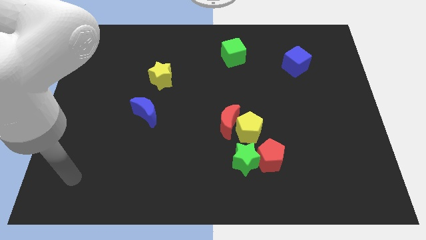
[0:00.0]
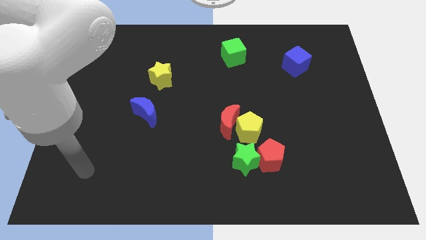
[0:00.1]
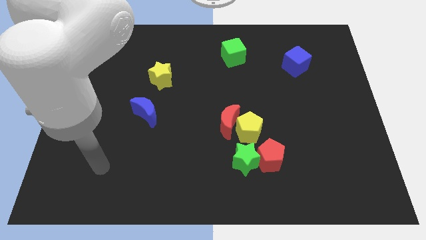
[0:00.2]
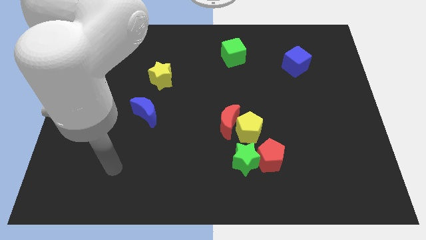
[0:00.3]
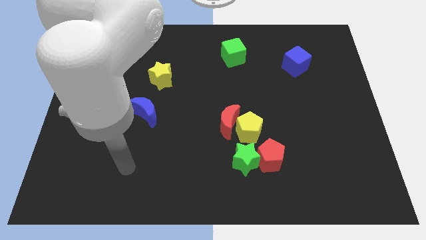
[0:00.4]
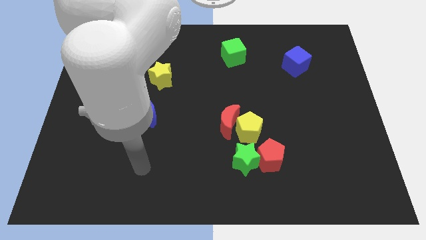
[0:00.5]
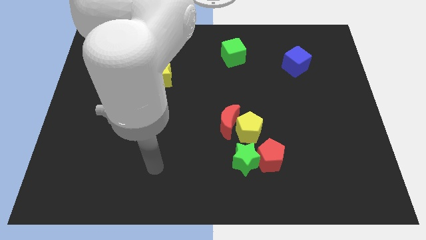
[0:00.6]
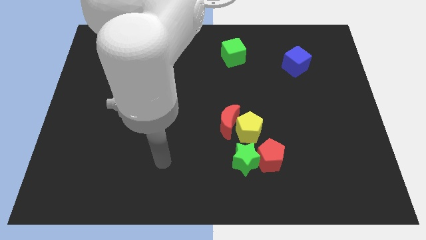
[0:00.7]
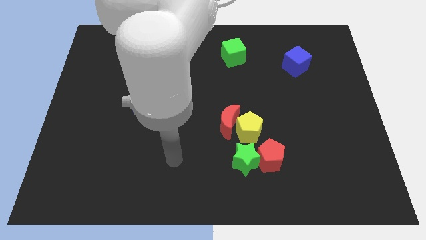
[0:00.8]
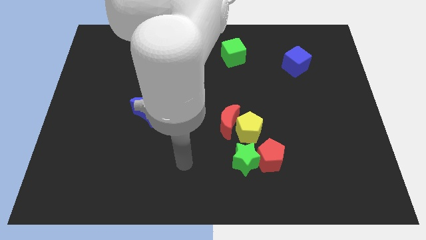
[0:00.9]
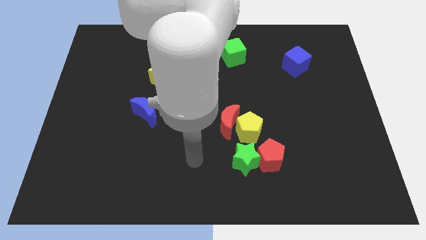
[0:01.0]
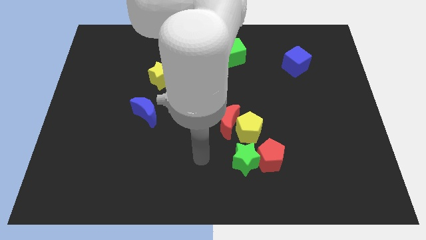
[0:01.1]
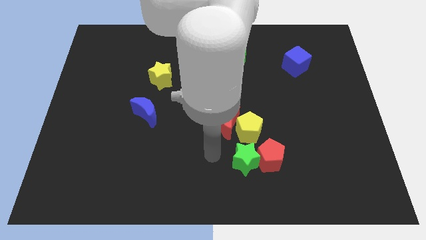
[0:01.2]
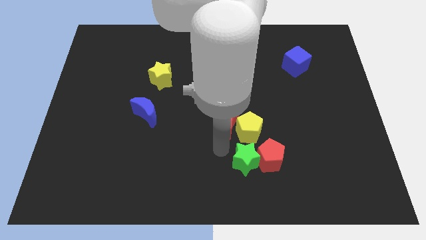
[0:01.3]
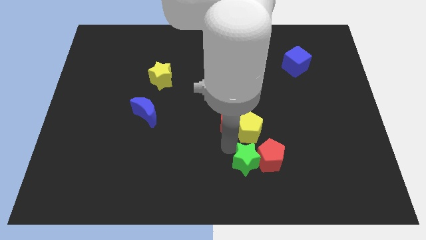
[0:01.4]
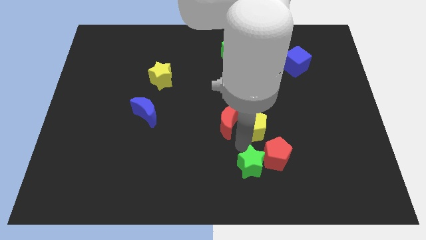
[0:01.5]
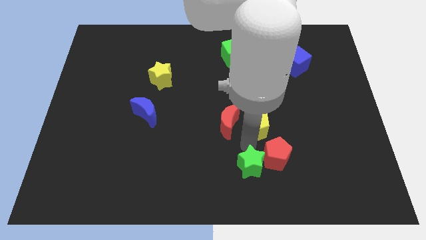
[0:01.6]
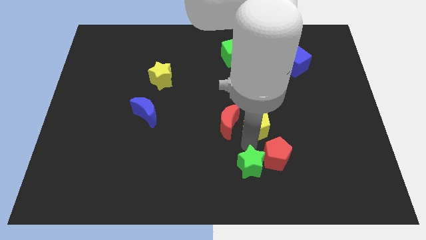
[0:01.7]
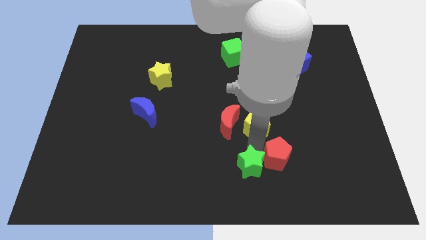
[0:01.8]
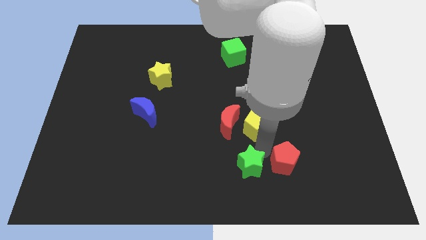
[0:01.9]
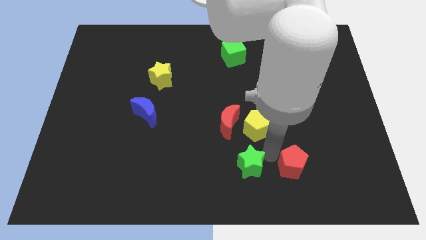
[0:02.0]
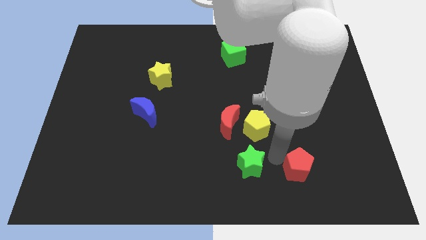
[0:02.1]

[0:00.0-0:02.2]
pull the red pentagon apart from the green star and yellow pentagon

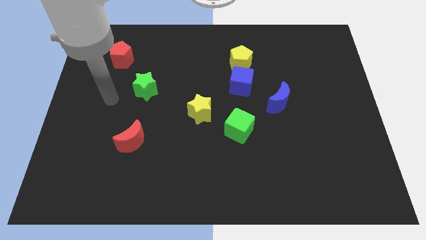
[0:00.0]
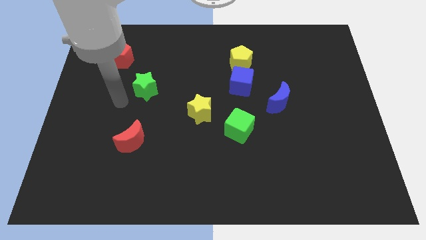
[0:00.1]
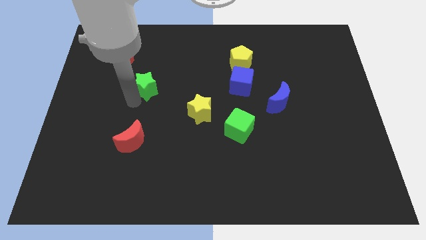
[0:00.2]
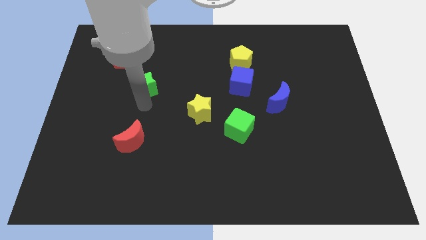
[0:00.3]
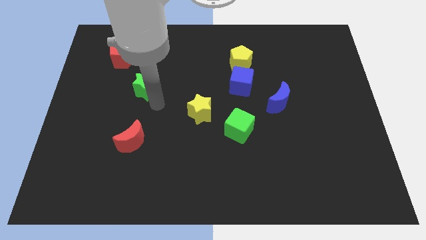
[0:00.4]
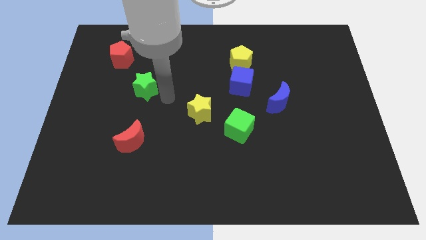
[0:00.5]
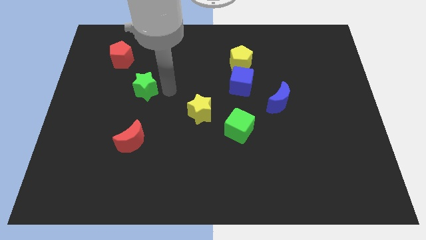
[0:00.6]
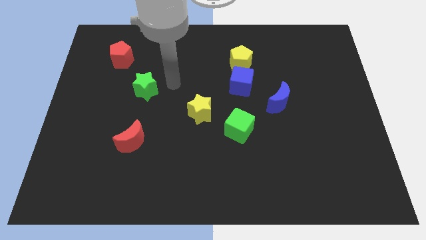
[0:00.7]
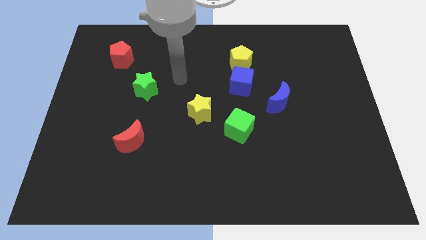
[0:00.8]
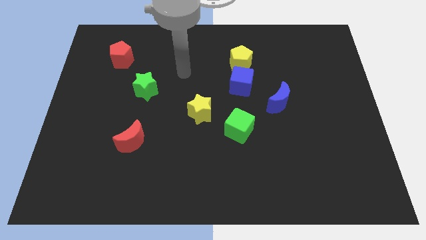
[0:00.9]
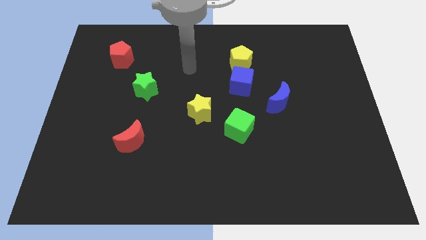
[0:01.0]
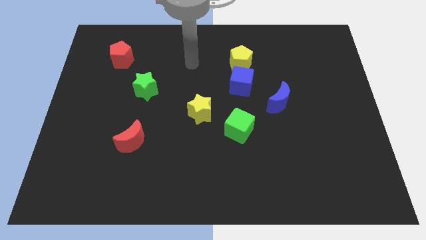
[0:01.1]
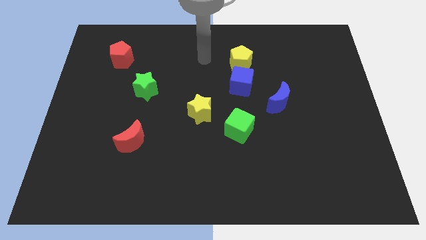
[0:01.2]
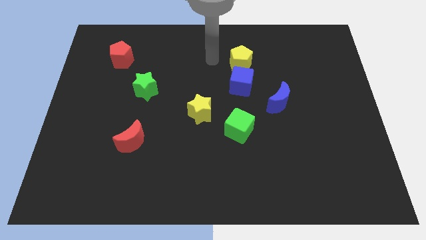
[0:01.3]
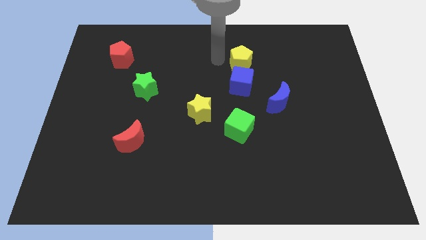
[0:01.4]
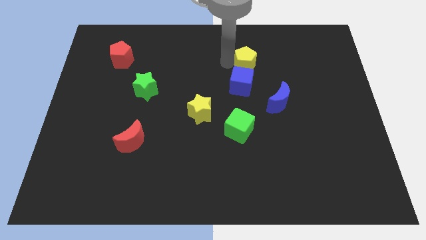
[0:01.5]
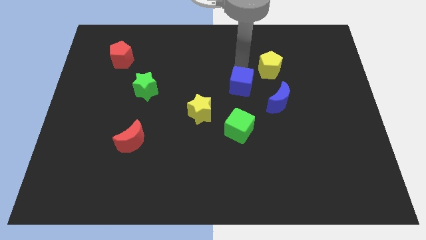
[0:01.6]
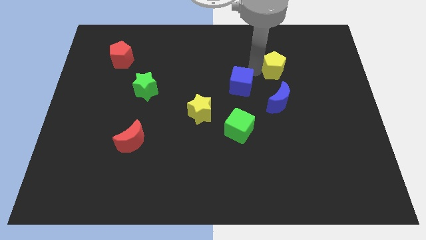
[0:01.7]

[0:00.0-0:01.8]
separate the blue cube from the yellow pentagon

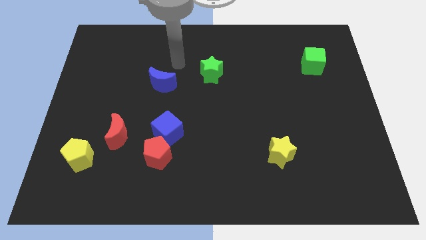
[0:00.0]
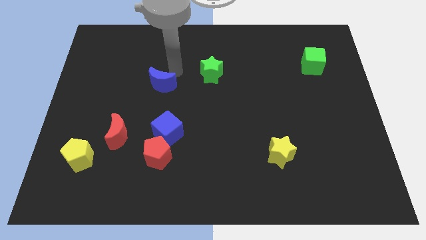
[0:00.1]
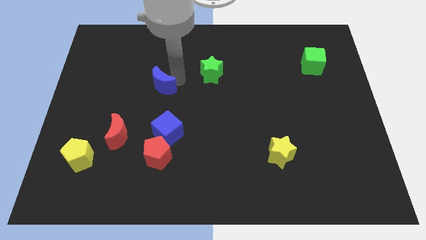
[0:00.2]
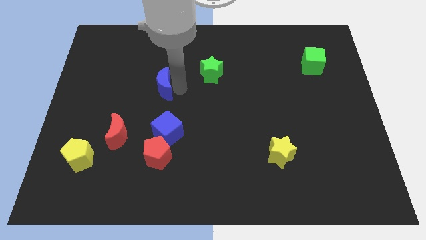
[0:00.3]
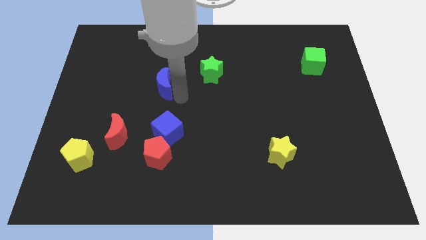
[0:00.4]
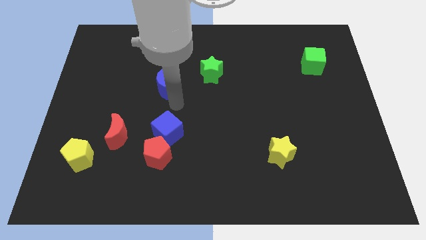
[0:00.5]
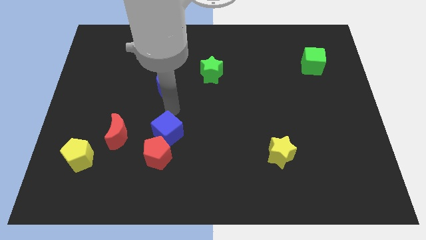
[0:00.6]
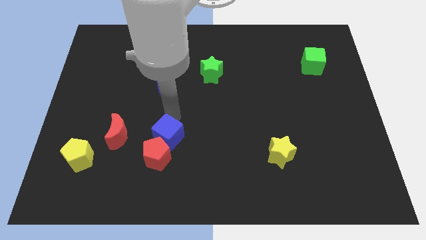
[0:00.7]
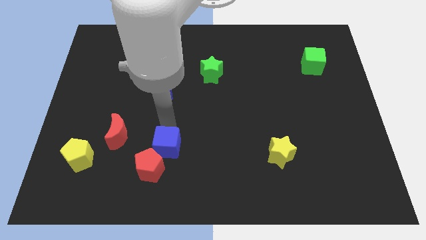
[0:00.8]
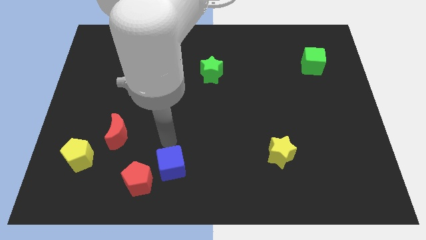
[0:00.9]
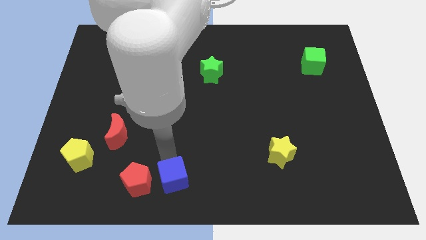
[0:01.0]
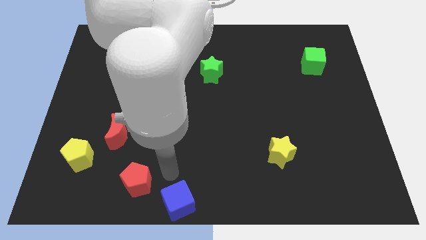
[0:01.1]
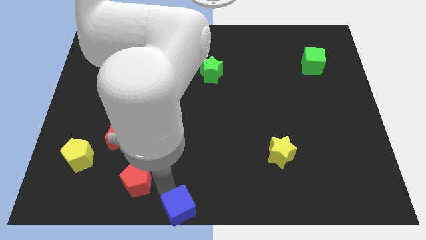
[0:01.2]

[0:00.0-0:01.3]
separate the red pentagon from the blue cube

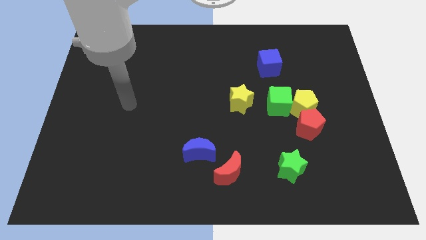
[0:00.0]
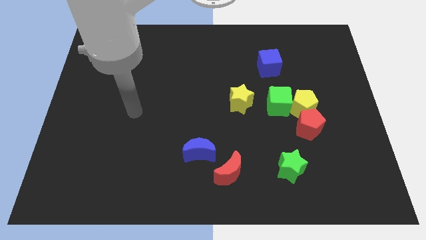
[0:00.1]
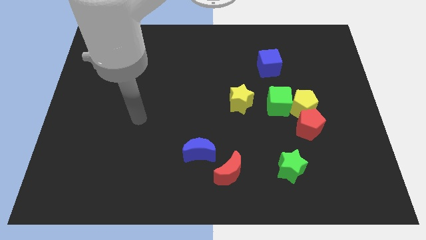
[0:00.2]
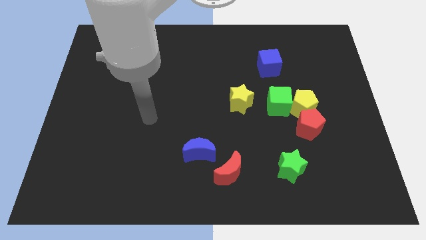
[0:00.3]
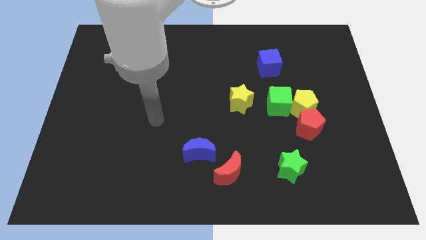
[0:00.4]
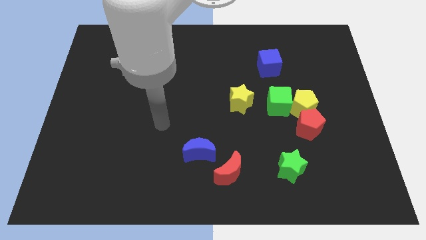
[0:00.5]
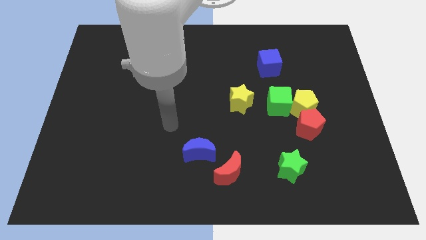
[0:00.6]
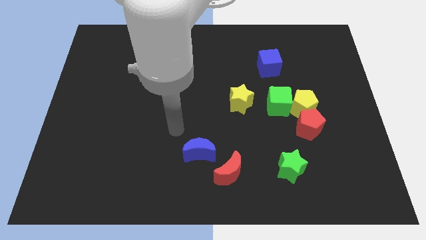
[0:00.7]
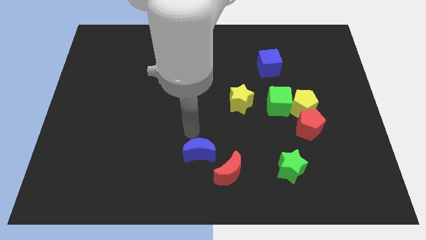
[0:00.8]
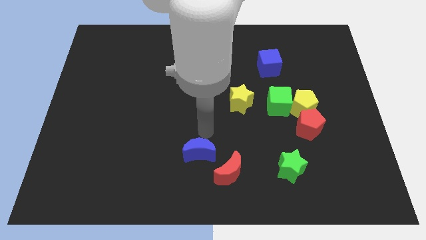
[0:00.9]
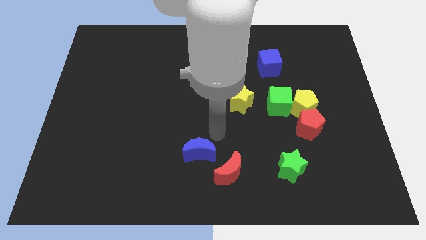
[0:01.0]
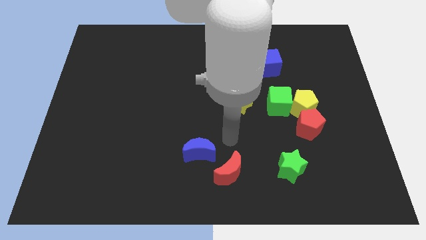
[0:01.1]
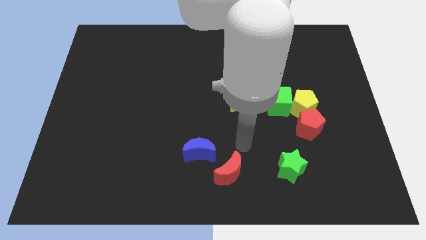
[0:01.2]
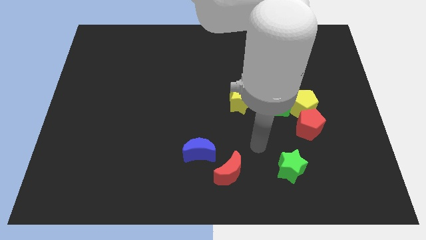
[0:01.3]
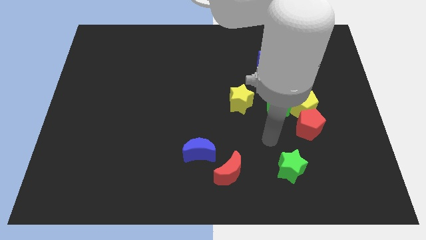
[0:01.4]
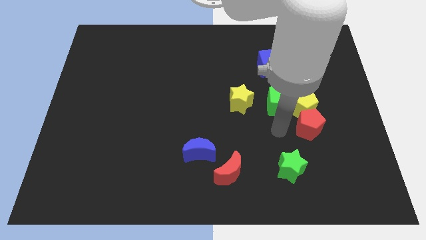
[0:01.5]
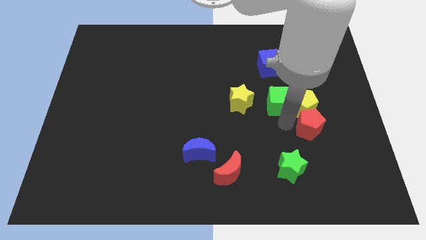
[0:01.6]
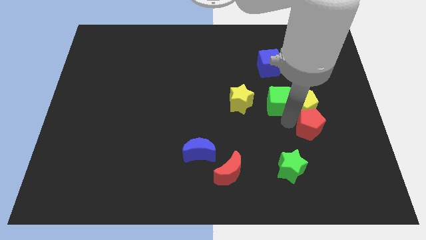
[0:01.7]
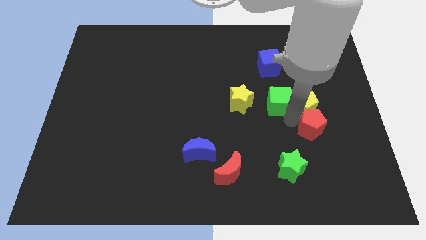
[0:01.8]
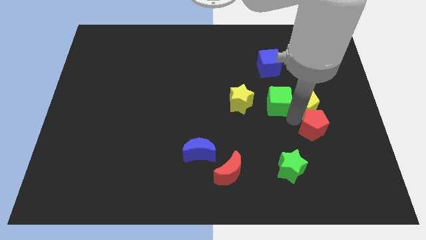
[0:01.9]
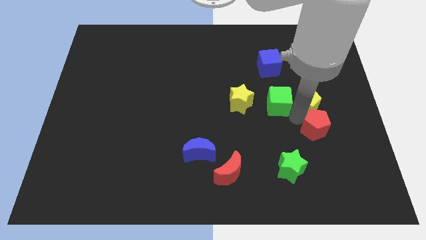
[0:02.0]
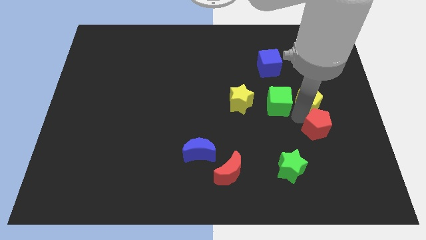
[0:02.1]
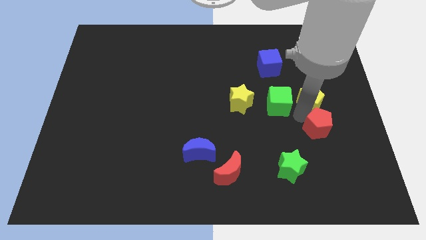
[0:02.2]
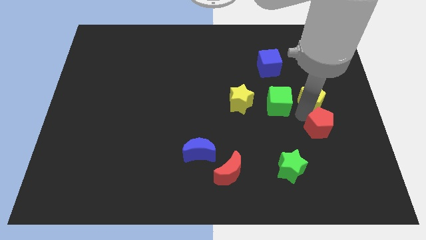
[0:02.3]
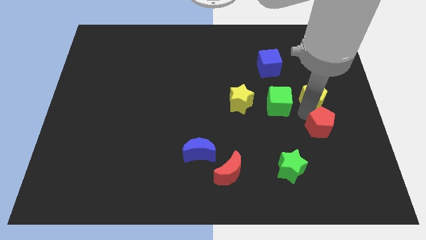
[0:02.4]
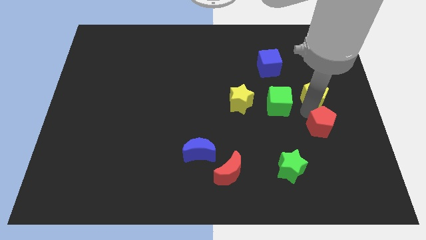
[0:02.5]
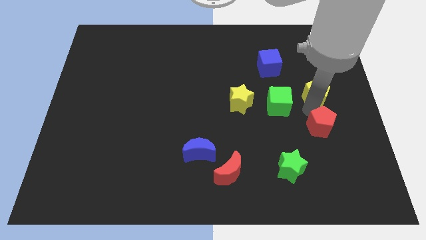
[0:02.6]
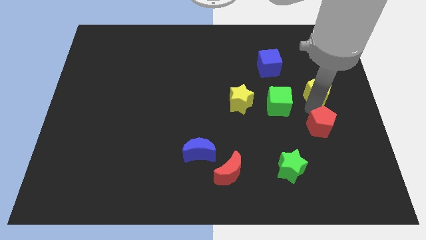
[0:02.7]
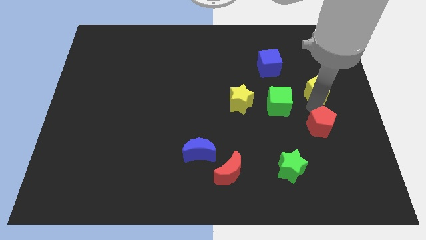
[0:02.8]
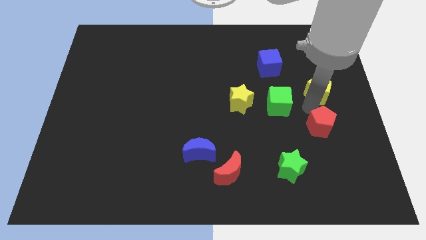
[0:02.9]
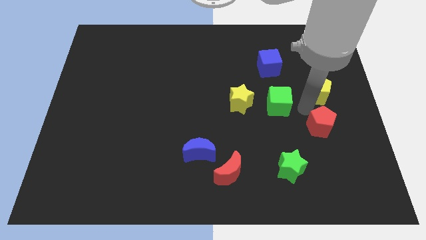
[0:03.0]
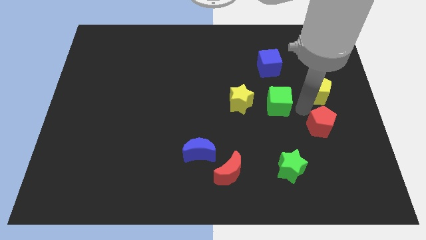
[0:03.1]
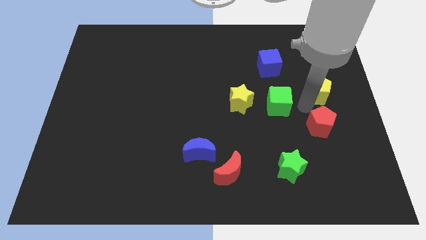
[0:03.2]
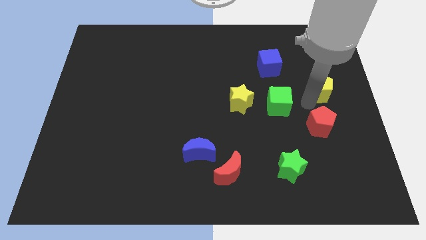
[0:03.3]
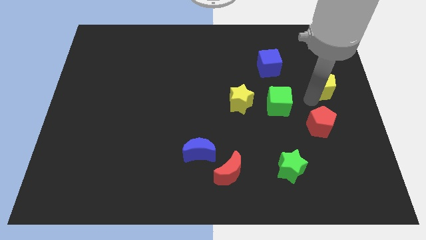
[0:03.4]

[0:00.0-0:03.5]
move the yellow pentagon away from the red pentagon and green cube

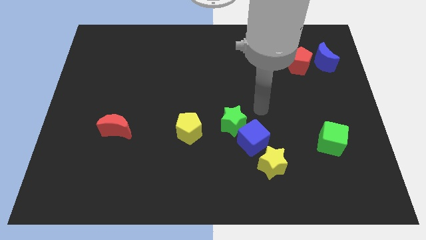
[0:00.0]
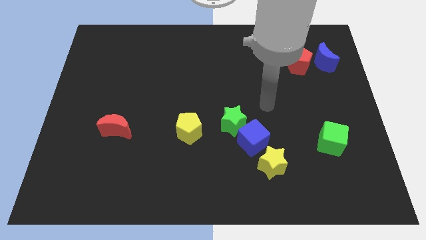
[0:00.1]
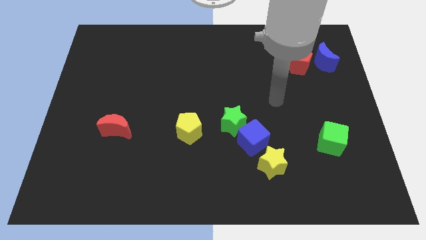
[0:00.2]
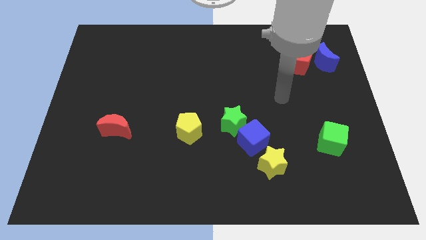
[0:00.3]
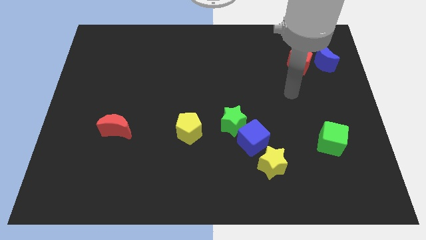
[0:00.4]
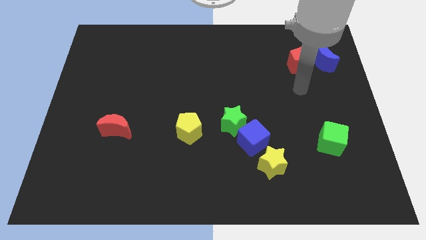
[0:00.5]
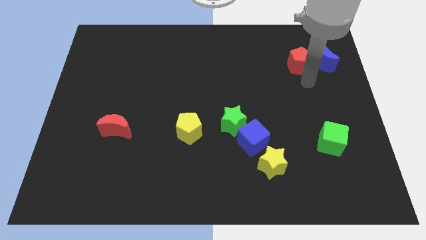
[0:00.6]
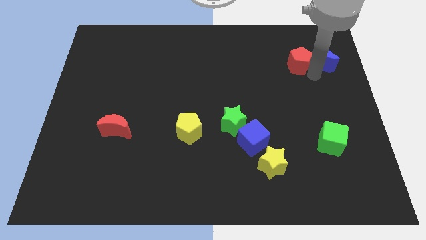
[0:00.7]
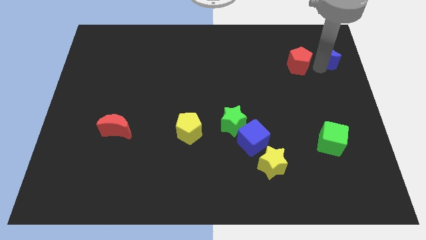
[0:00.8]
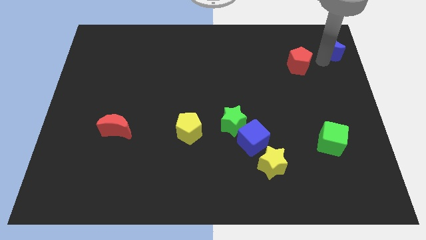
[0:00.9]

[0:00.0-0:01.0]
pull the red pentagon apart from the blue moon
